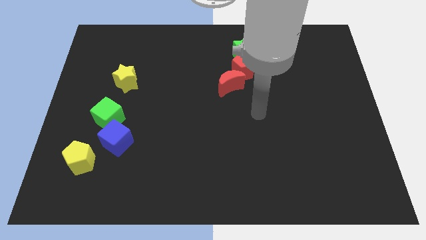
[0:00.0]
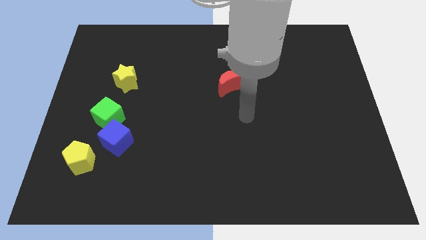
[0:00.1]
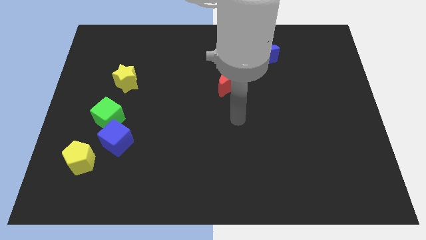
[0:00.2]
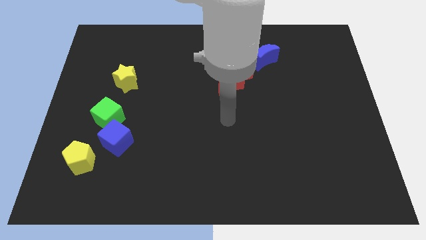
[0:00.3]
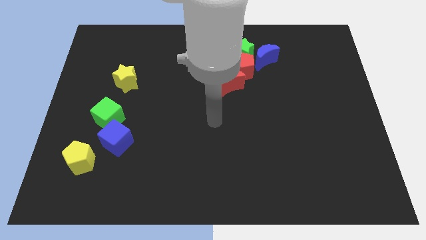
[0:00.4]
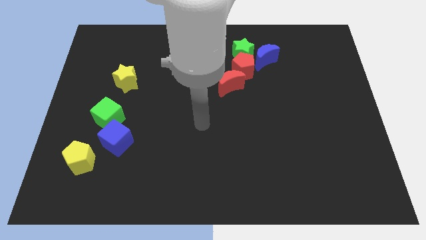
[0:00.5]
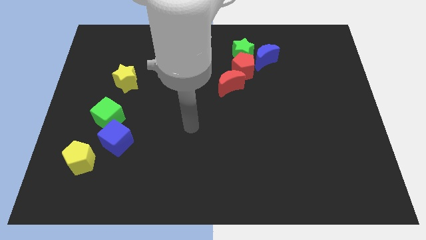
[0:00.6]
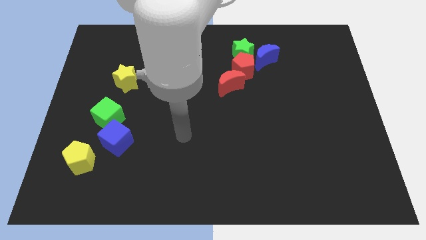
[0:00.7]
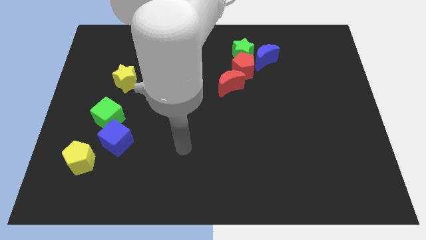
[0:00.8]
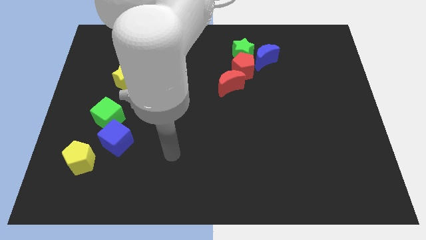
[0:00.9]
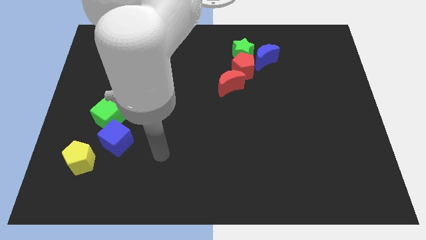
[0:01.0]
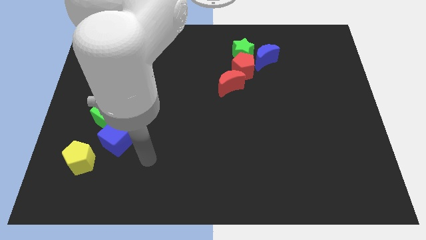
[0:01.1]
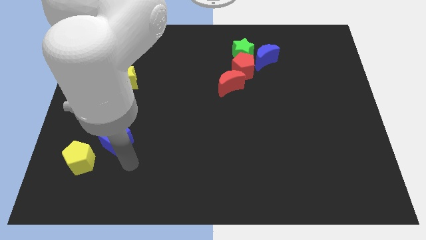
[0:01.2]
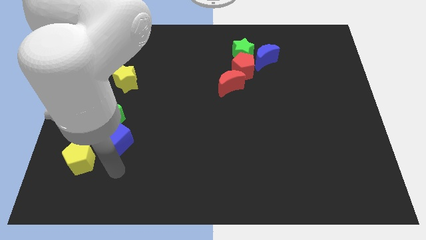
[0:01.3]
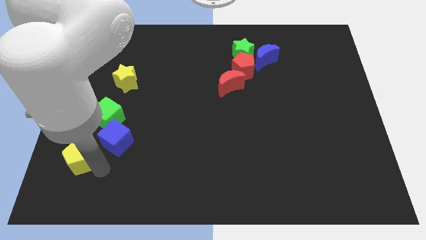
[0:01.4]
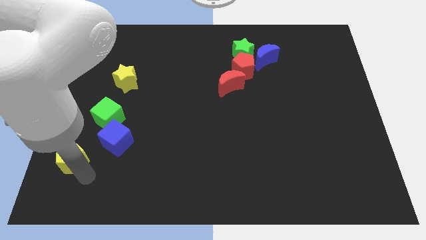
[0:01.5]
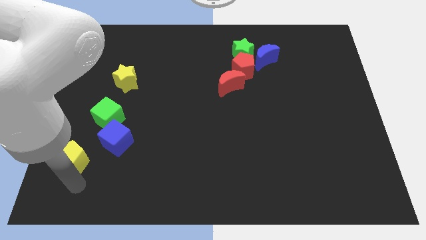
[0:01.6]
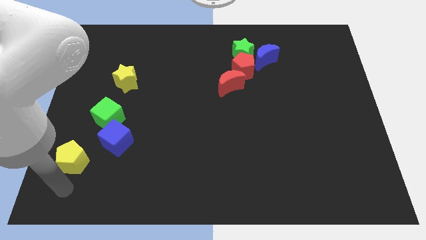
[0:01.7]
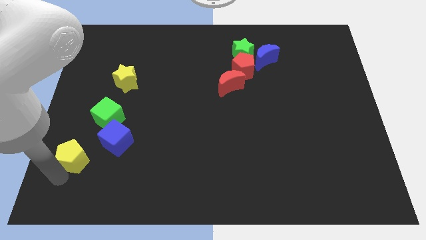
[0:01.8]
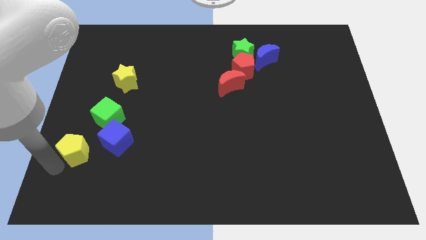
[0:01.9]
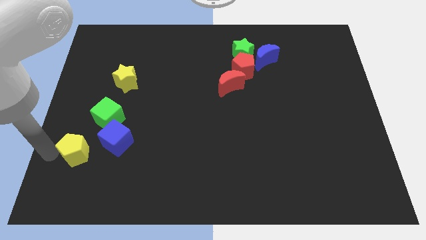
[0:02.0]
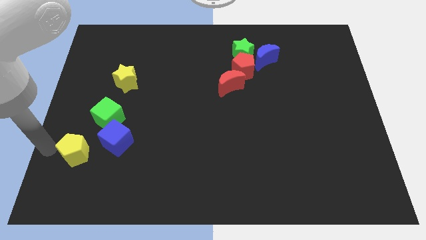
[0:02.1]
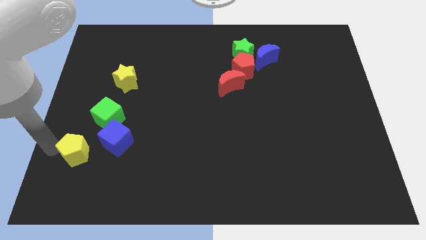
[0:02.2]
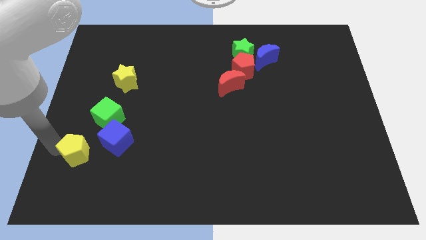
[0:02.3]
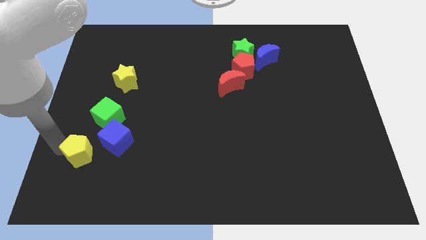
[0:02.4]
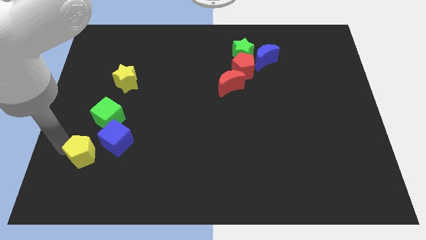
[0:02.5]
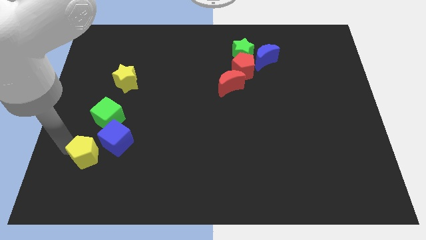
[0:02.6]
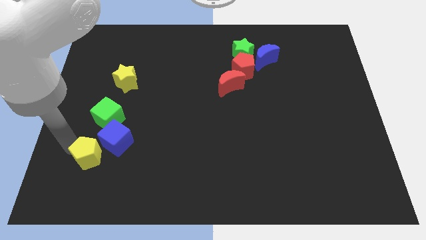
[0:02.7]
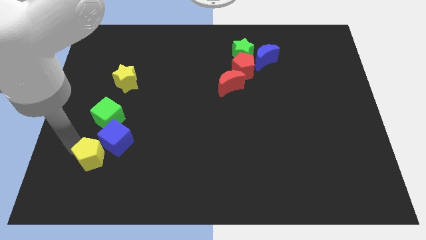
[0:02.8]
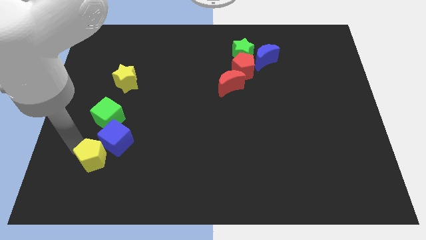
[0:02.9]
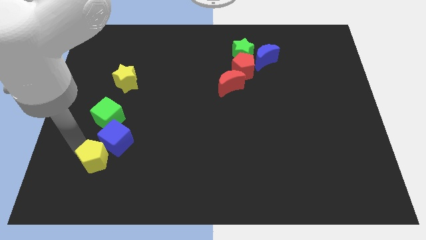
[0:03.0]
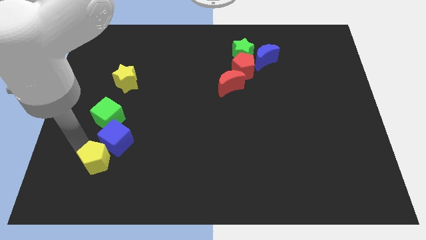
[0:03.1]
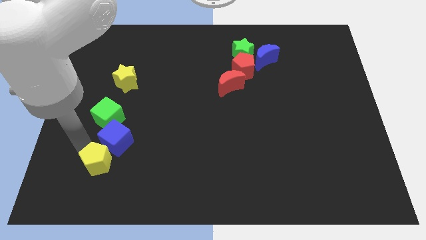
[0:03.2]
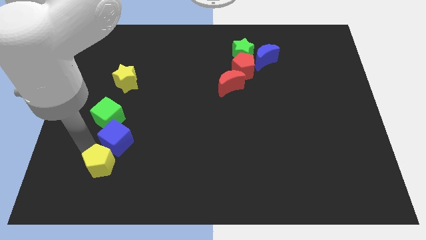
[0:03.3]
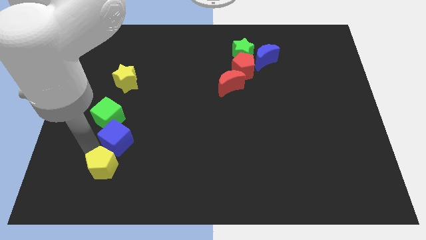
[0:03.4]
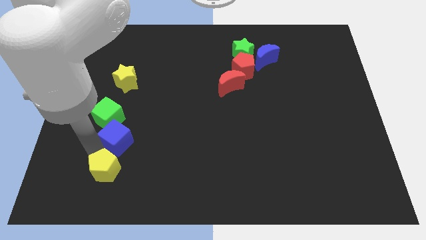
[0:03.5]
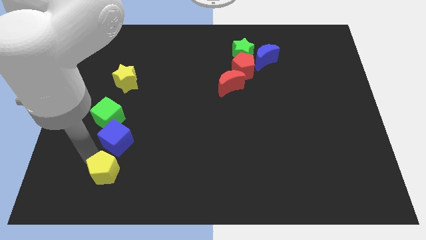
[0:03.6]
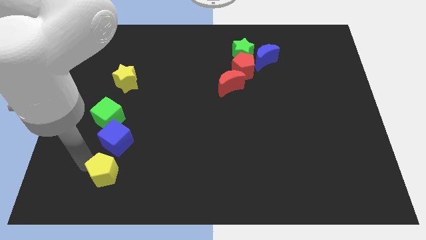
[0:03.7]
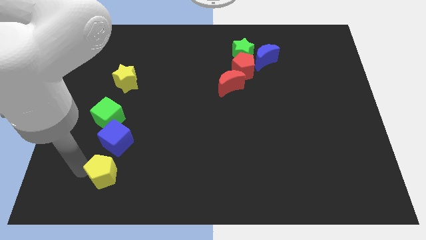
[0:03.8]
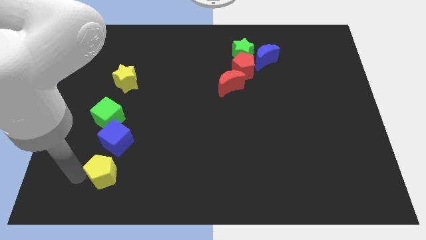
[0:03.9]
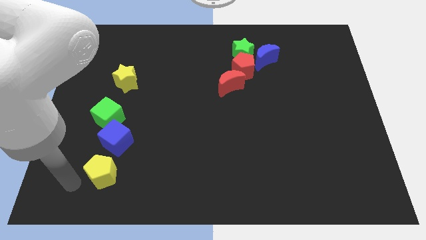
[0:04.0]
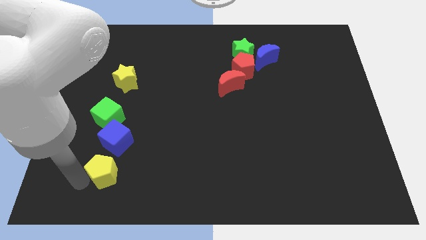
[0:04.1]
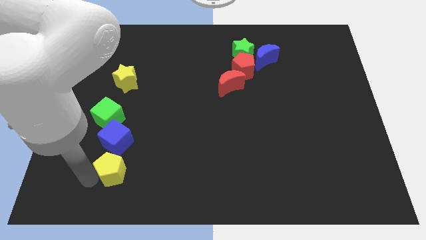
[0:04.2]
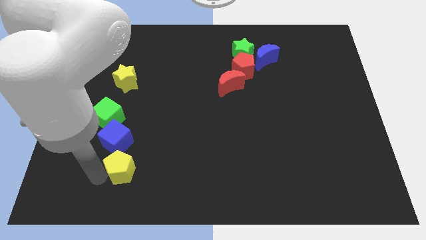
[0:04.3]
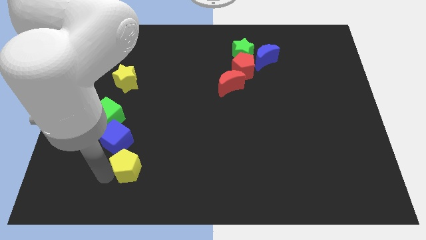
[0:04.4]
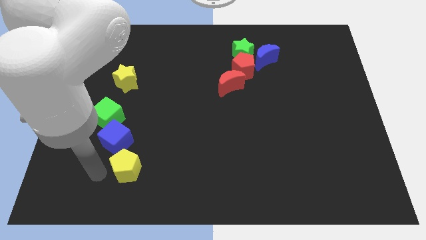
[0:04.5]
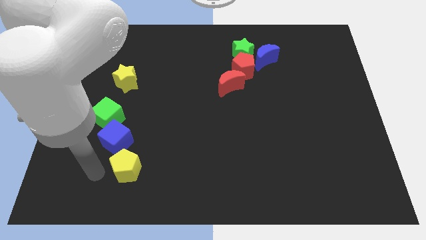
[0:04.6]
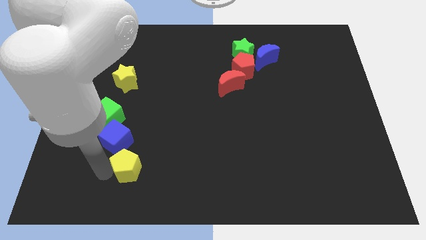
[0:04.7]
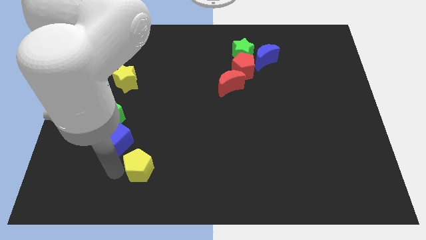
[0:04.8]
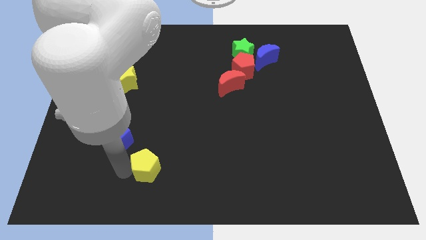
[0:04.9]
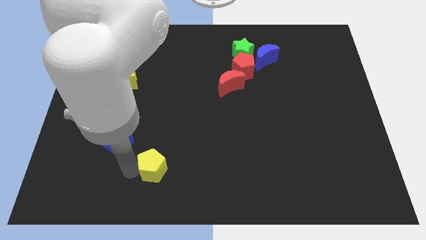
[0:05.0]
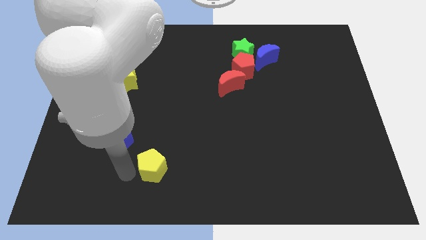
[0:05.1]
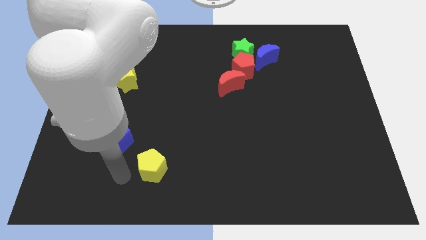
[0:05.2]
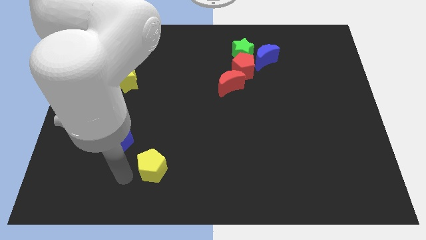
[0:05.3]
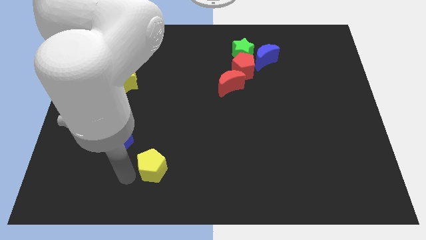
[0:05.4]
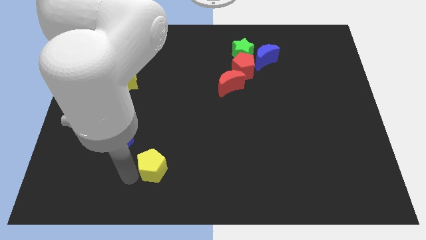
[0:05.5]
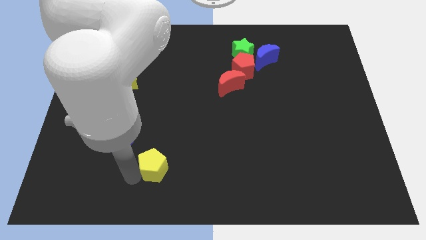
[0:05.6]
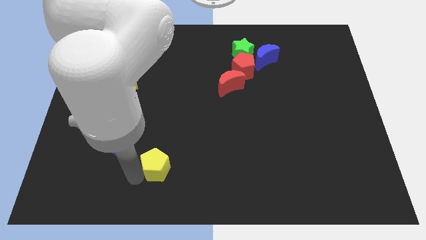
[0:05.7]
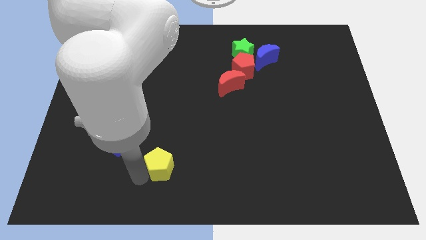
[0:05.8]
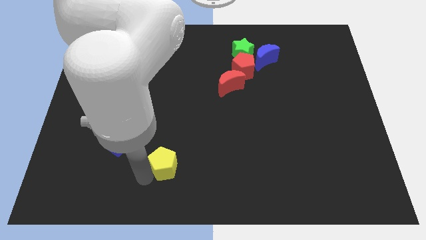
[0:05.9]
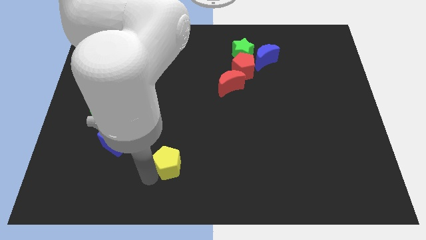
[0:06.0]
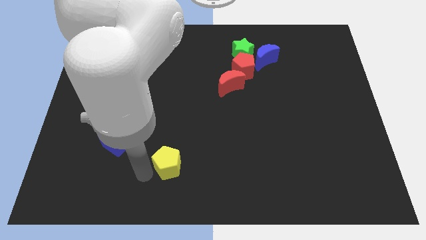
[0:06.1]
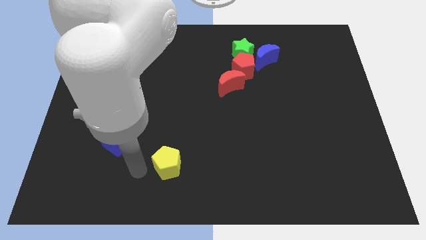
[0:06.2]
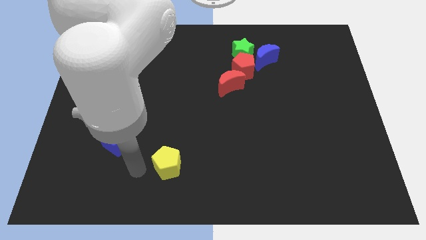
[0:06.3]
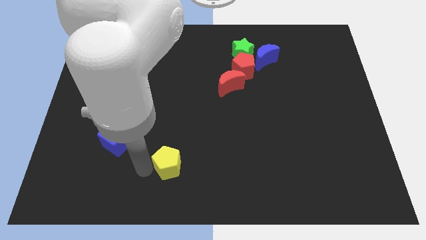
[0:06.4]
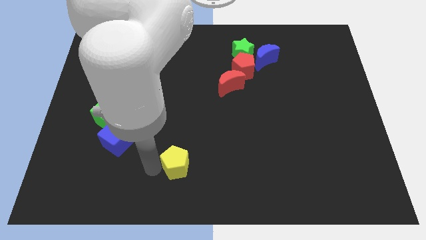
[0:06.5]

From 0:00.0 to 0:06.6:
move the yellow pentagon to the right

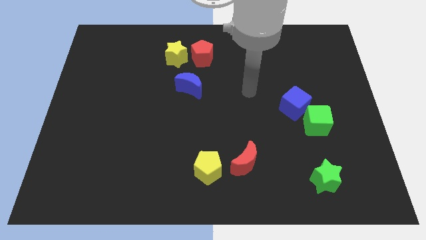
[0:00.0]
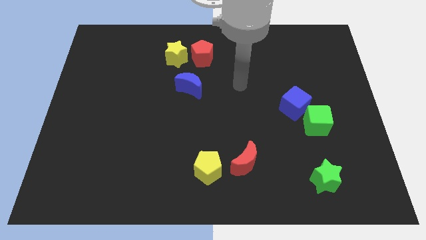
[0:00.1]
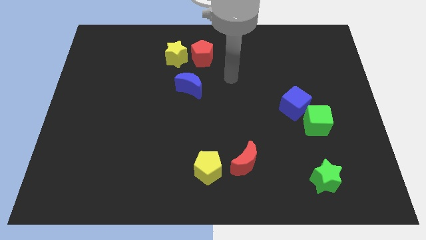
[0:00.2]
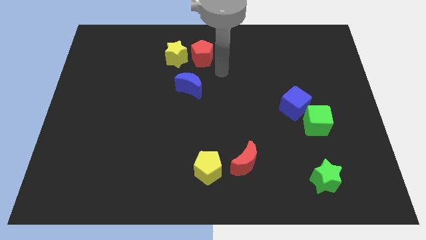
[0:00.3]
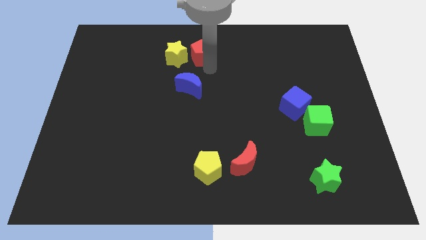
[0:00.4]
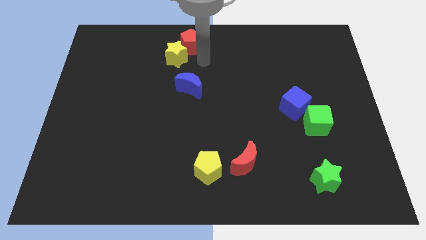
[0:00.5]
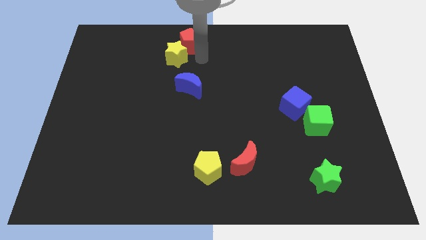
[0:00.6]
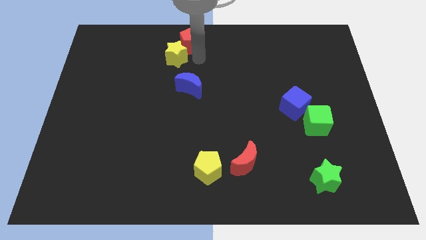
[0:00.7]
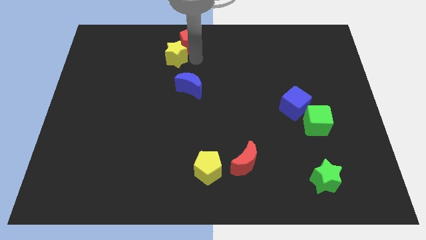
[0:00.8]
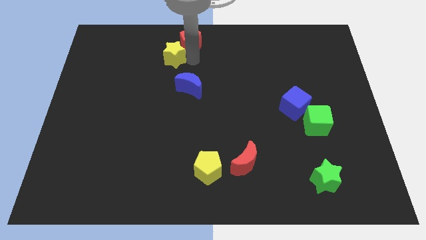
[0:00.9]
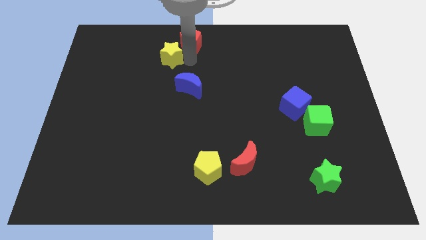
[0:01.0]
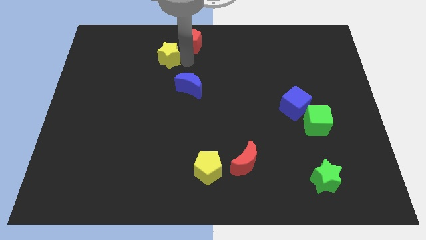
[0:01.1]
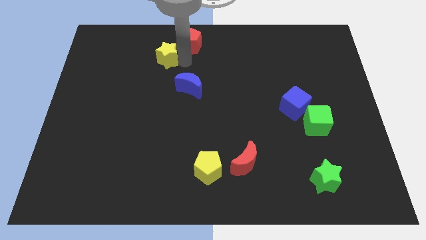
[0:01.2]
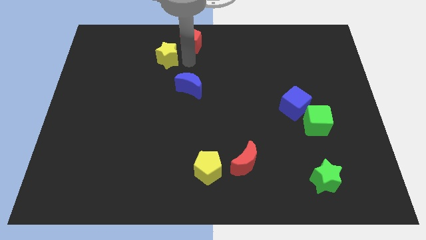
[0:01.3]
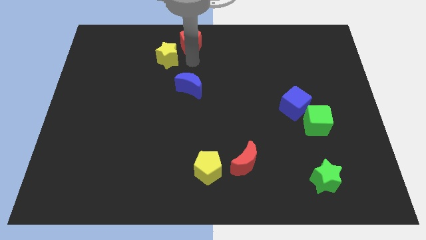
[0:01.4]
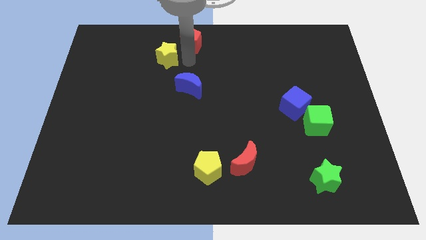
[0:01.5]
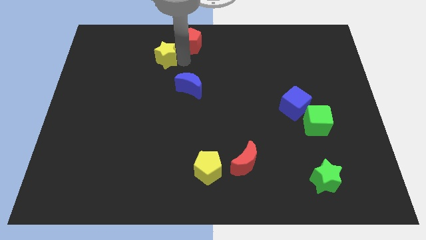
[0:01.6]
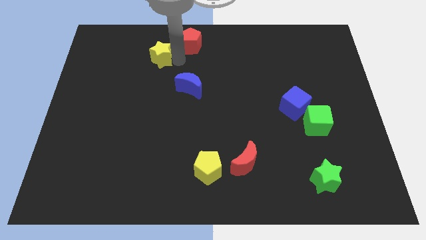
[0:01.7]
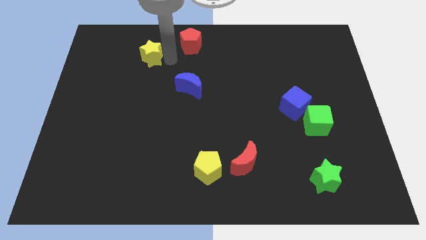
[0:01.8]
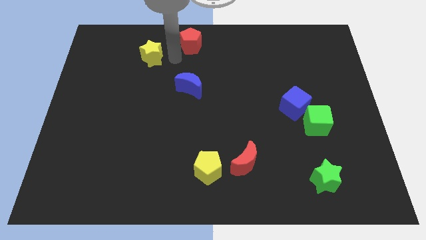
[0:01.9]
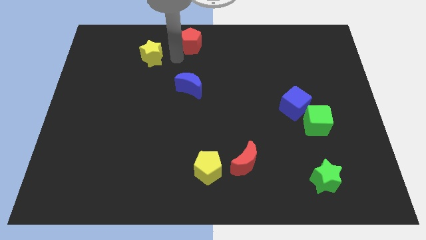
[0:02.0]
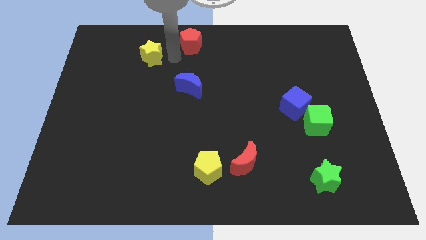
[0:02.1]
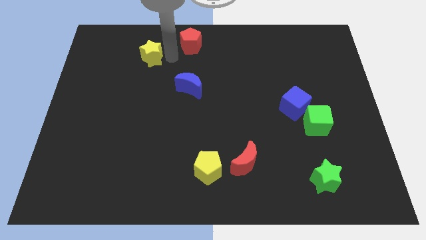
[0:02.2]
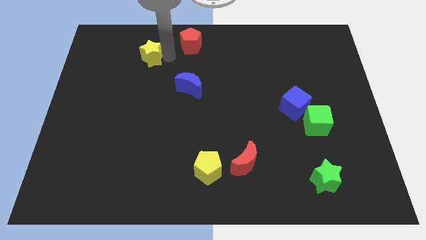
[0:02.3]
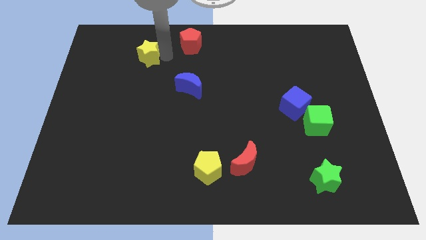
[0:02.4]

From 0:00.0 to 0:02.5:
slightly push the yellow star to the left
